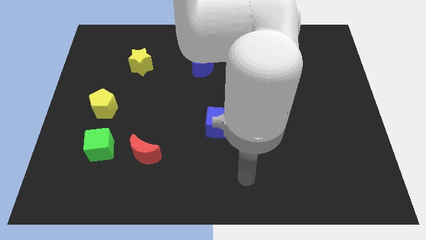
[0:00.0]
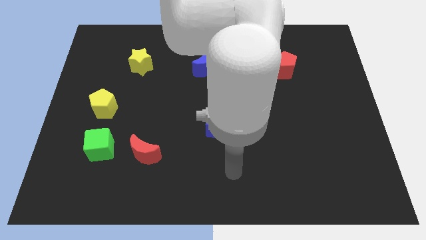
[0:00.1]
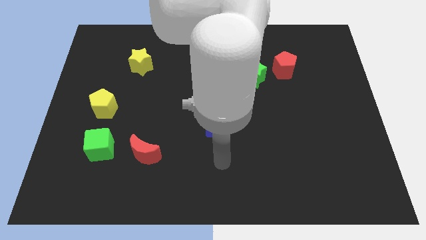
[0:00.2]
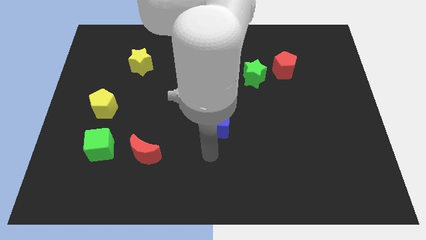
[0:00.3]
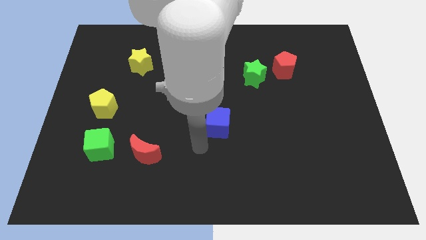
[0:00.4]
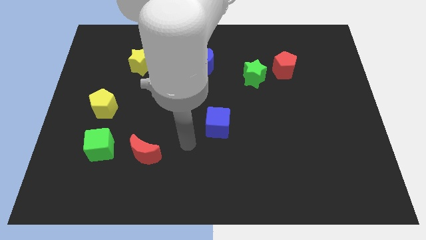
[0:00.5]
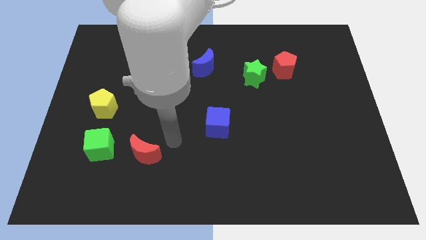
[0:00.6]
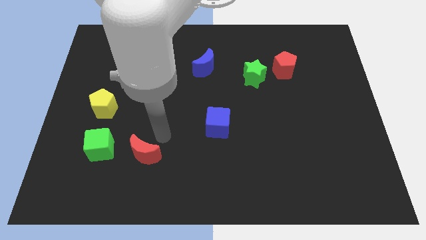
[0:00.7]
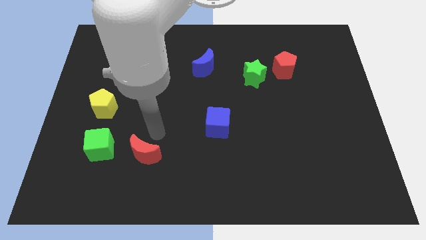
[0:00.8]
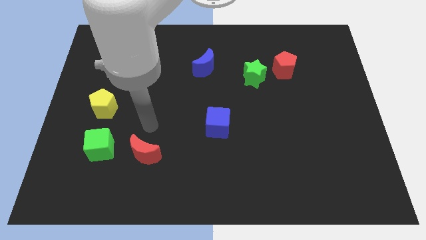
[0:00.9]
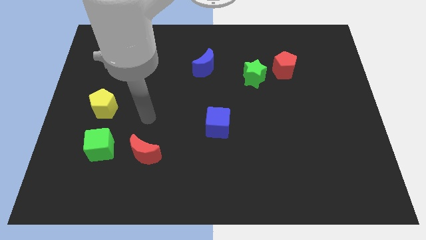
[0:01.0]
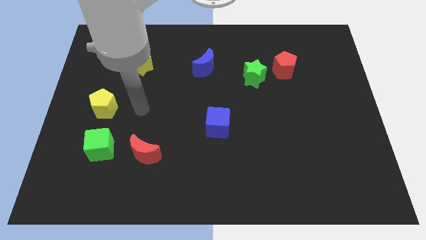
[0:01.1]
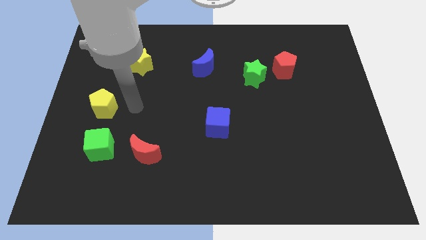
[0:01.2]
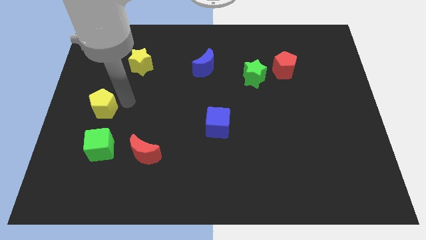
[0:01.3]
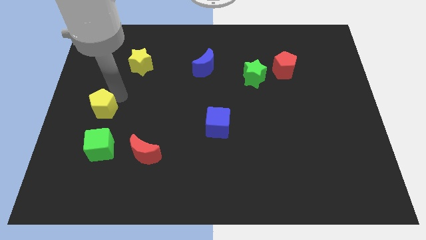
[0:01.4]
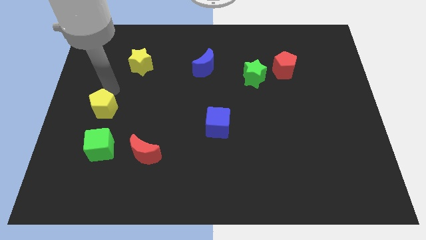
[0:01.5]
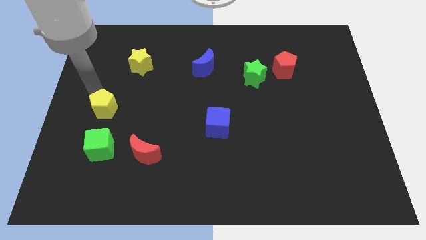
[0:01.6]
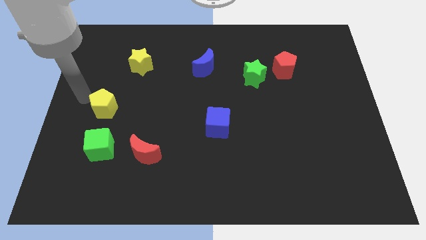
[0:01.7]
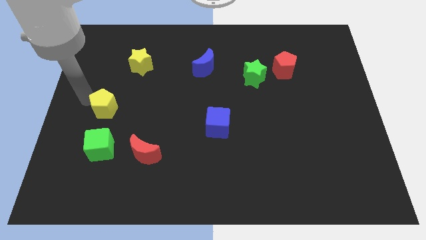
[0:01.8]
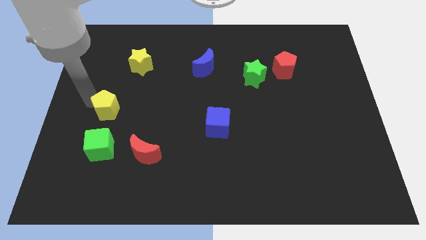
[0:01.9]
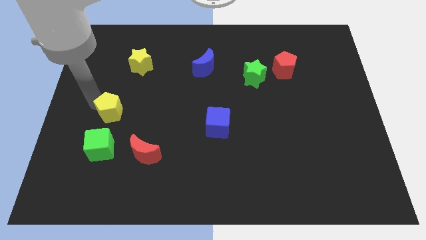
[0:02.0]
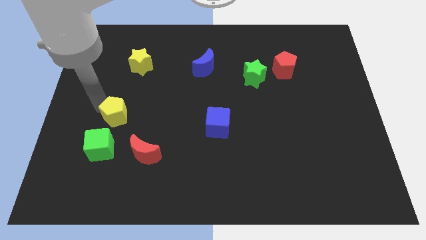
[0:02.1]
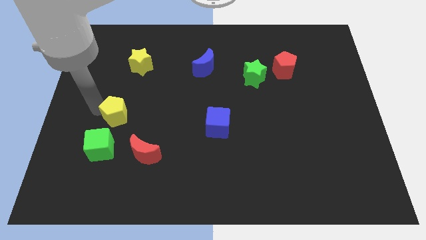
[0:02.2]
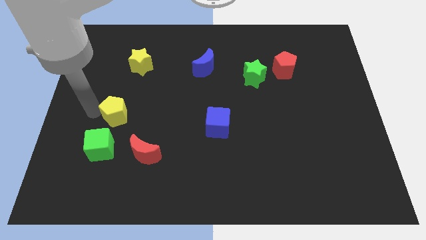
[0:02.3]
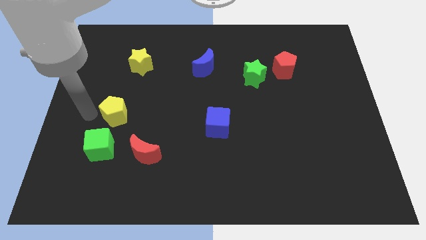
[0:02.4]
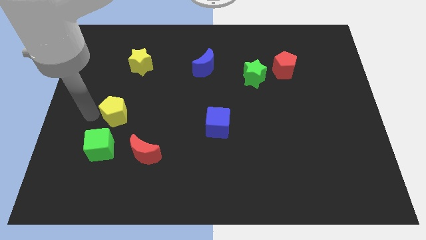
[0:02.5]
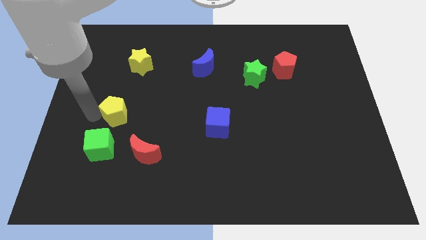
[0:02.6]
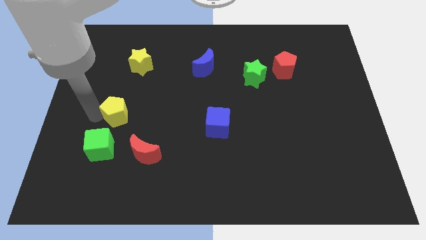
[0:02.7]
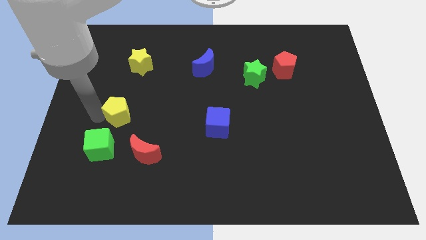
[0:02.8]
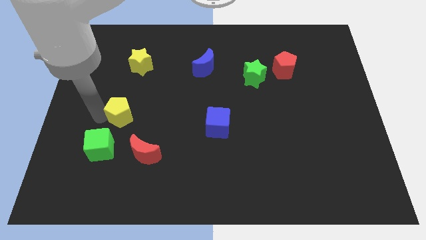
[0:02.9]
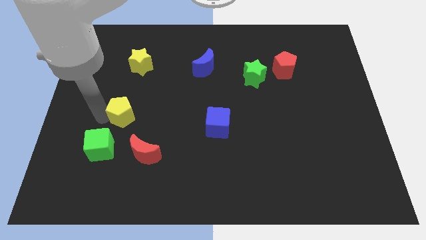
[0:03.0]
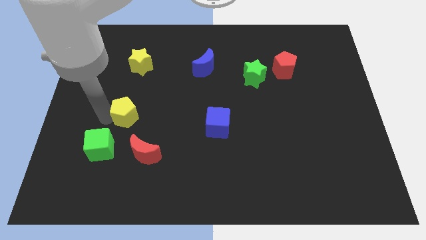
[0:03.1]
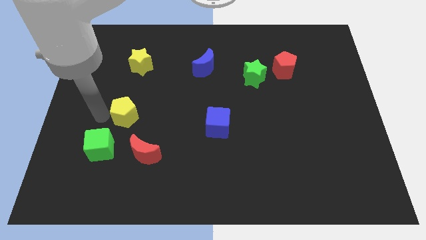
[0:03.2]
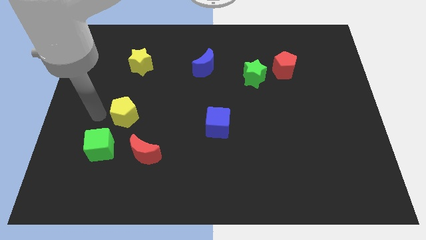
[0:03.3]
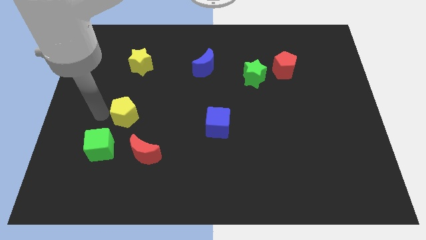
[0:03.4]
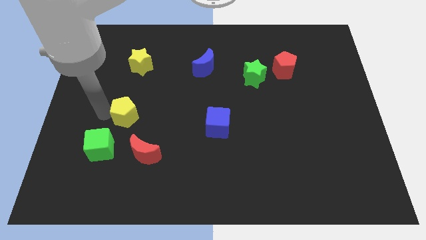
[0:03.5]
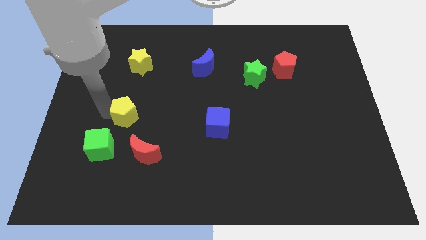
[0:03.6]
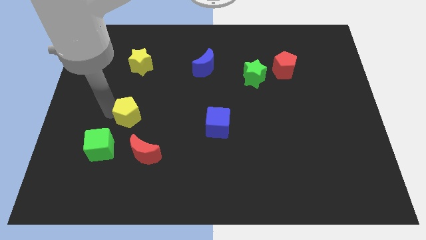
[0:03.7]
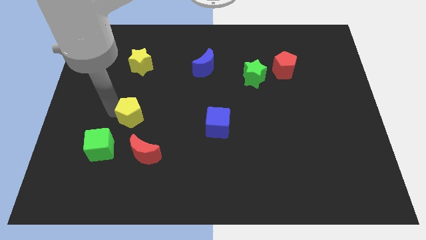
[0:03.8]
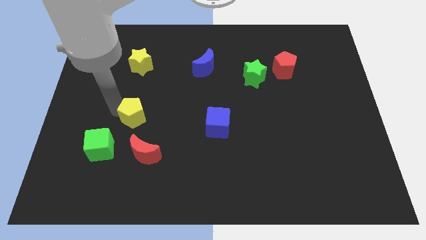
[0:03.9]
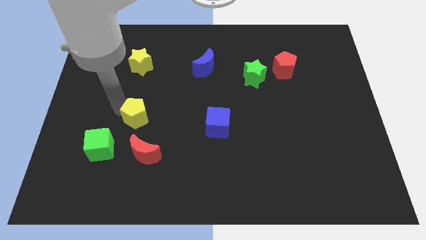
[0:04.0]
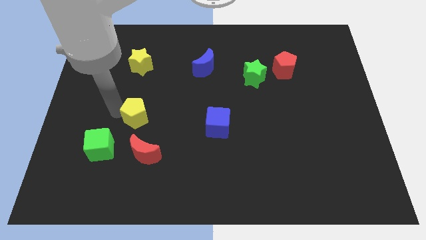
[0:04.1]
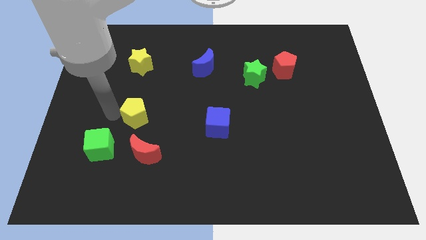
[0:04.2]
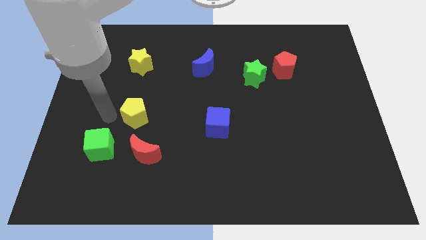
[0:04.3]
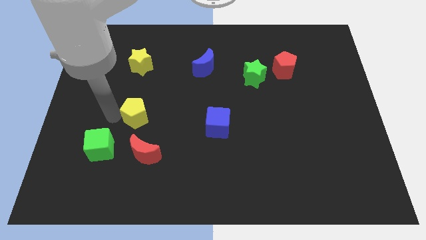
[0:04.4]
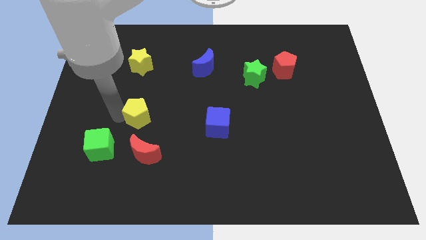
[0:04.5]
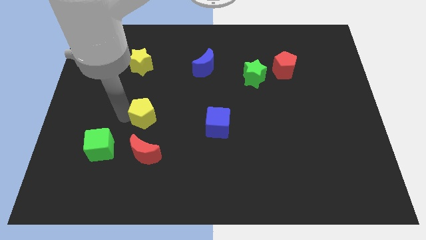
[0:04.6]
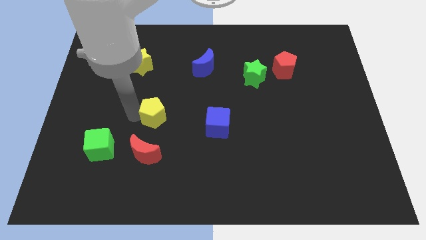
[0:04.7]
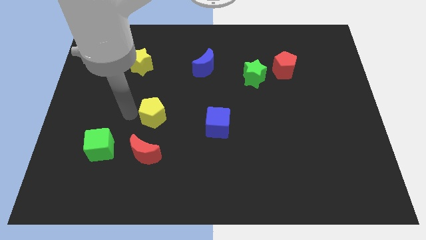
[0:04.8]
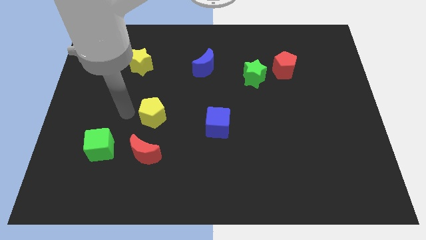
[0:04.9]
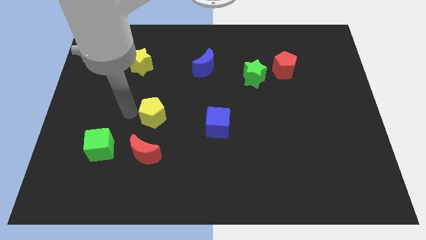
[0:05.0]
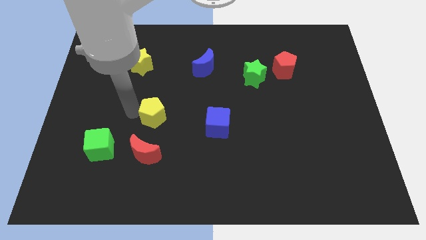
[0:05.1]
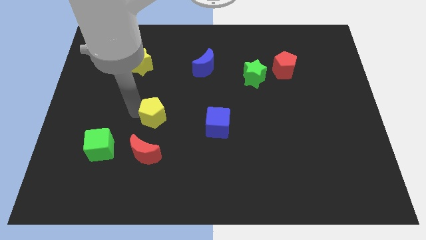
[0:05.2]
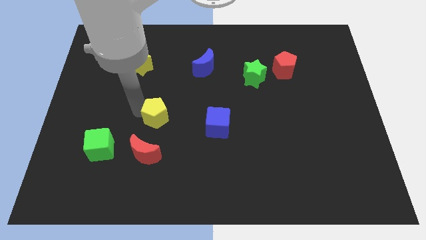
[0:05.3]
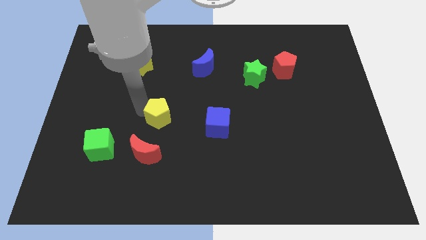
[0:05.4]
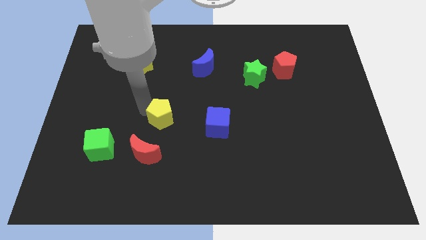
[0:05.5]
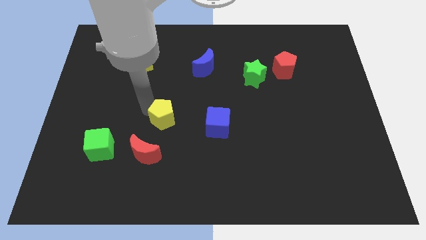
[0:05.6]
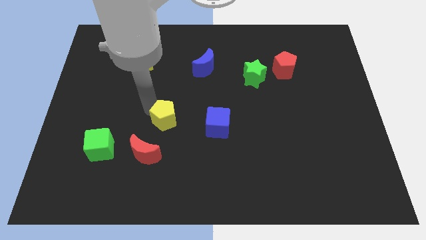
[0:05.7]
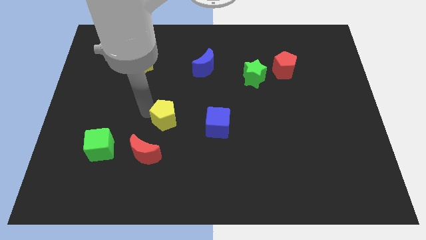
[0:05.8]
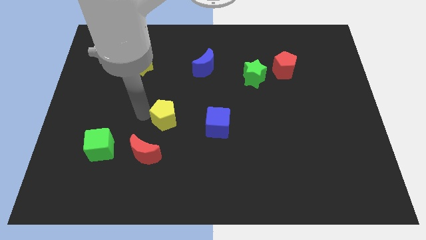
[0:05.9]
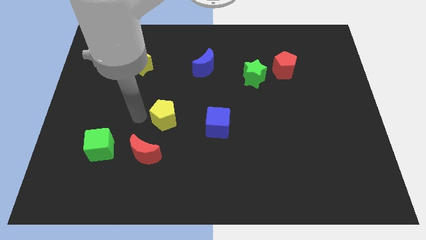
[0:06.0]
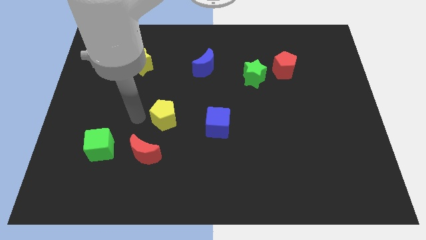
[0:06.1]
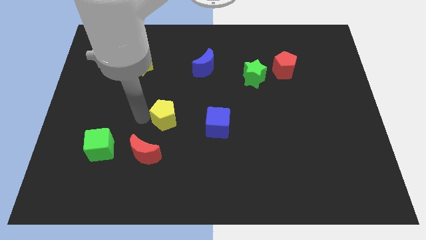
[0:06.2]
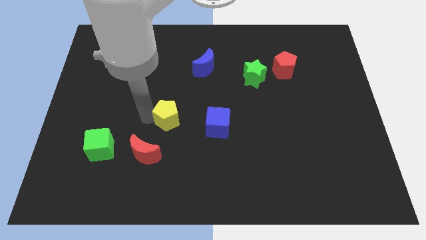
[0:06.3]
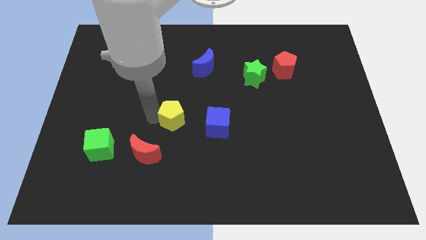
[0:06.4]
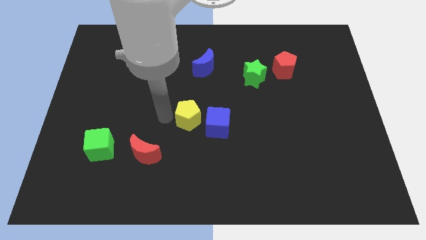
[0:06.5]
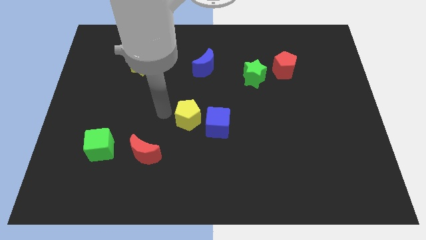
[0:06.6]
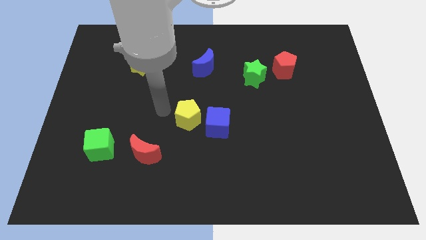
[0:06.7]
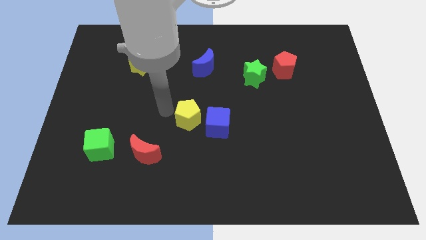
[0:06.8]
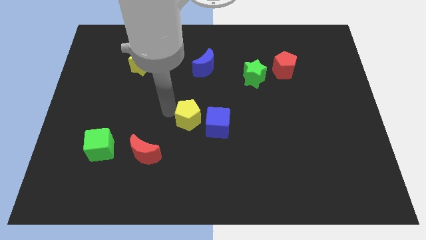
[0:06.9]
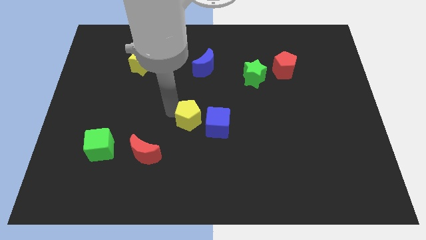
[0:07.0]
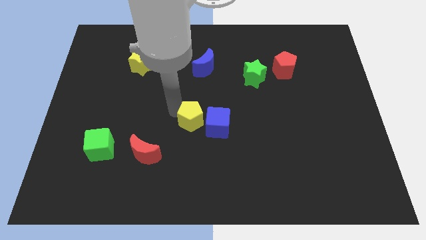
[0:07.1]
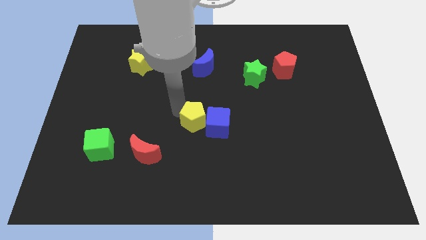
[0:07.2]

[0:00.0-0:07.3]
put the yellow pentagon close to the blue cube

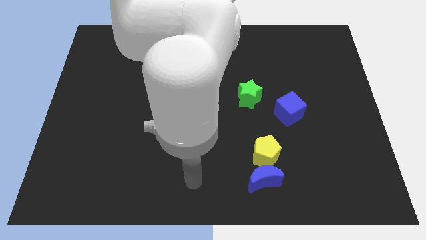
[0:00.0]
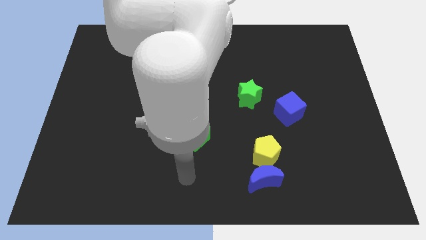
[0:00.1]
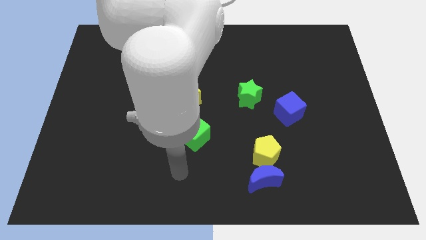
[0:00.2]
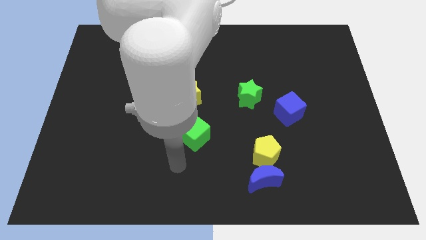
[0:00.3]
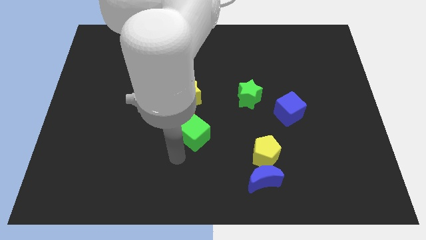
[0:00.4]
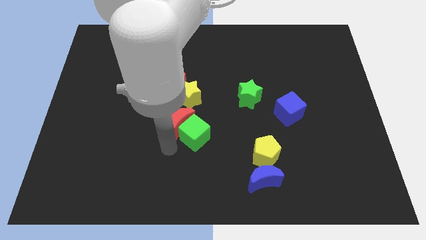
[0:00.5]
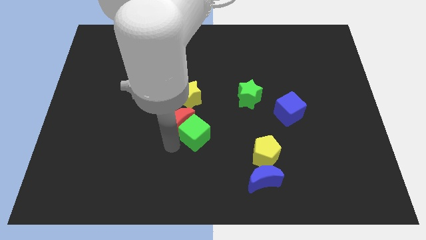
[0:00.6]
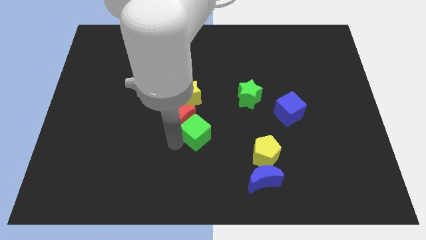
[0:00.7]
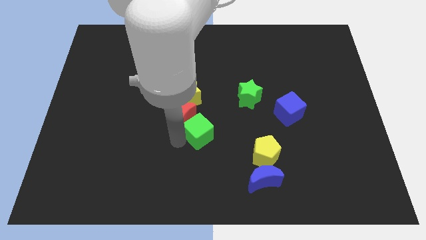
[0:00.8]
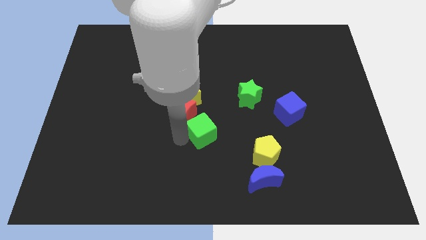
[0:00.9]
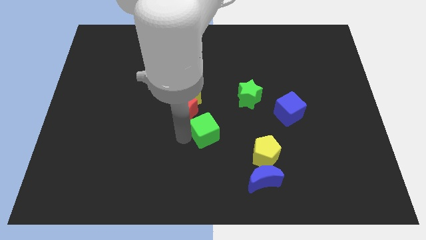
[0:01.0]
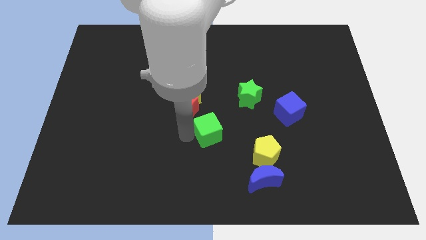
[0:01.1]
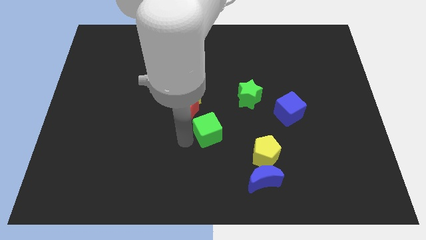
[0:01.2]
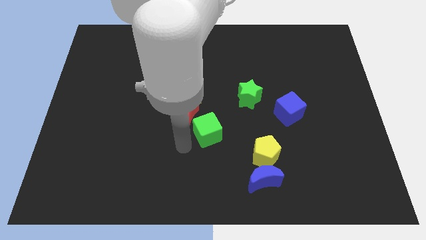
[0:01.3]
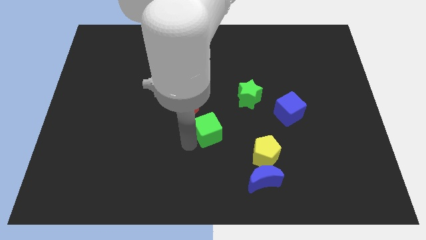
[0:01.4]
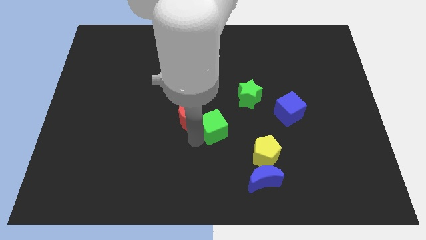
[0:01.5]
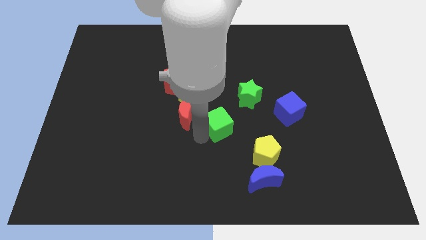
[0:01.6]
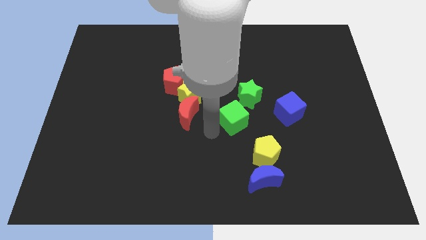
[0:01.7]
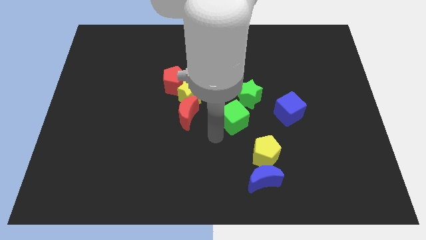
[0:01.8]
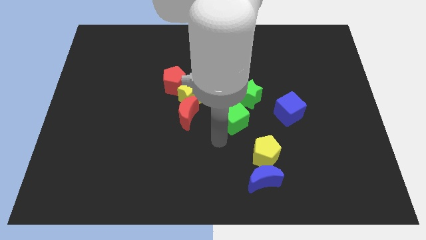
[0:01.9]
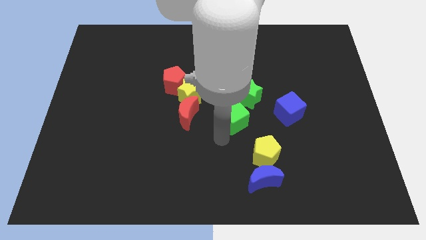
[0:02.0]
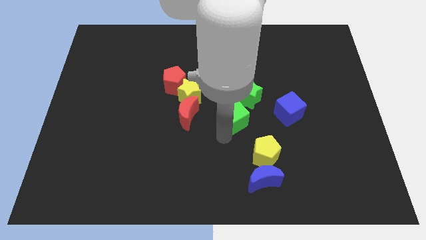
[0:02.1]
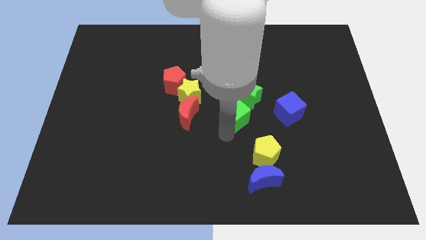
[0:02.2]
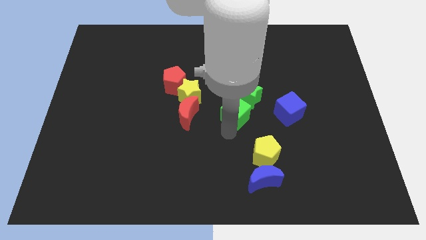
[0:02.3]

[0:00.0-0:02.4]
push the green cube towards the green star
